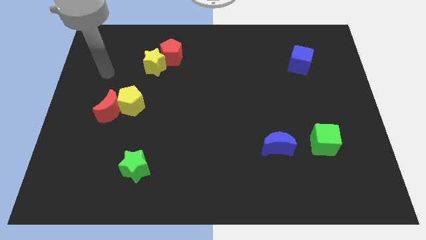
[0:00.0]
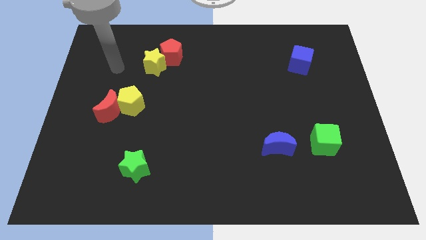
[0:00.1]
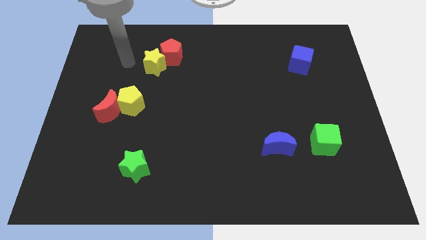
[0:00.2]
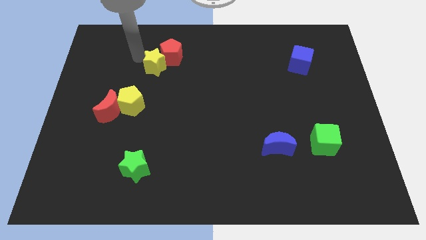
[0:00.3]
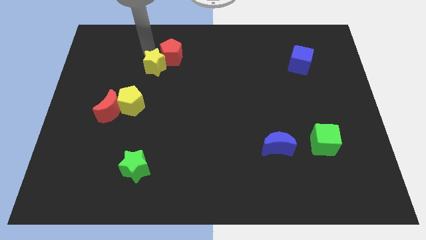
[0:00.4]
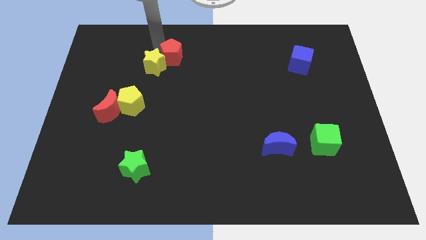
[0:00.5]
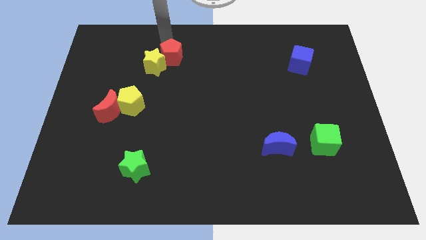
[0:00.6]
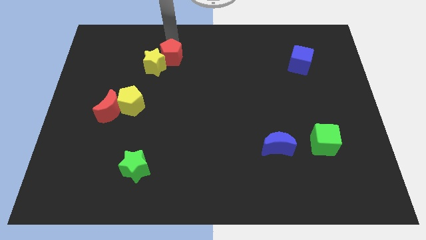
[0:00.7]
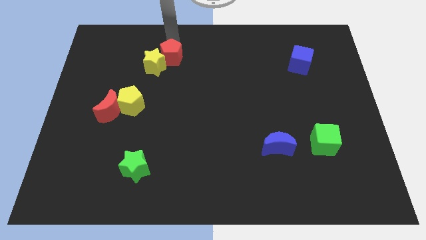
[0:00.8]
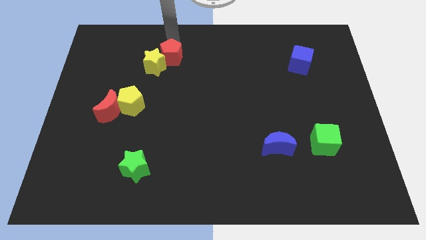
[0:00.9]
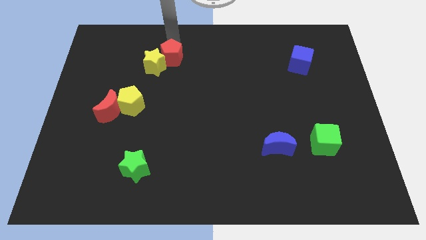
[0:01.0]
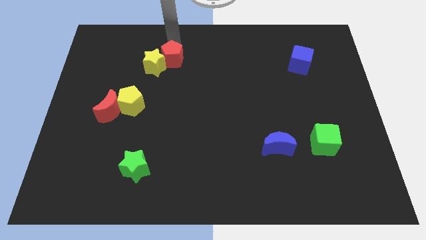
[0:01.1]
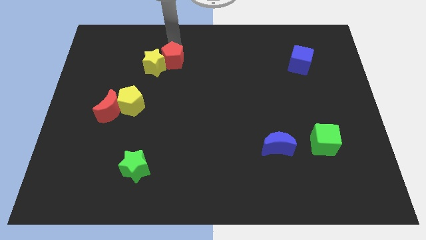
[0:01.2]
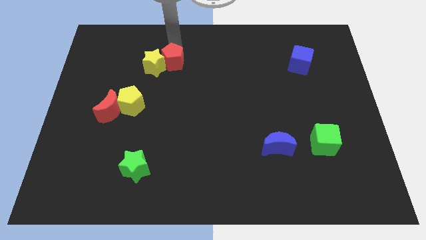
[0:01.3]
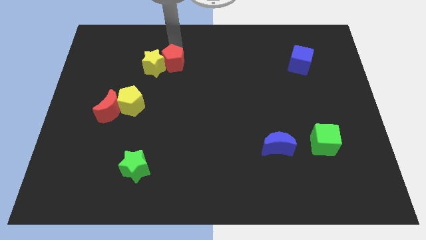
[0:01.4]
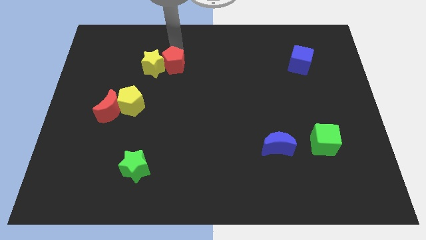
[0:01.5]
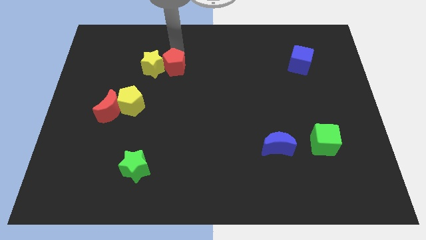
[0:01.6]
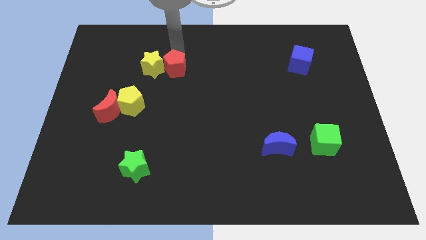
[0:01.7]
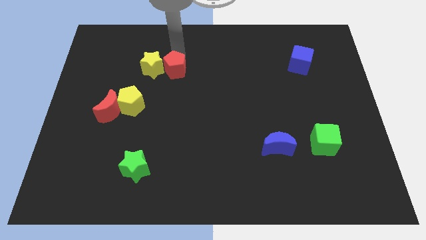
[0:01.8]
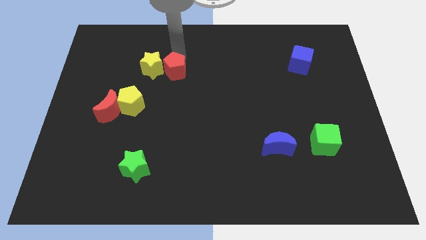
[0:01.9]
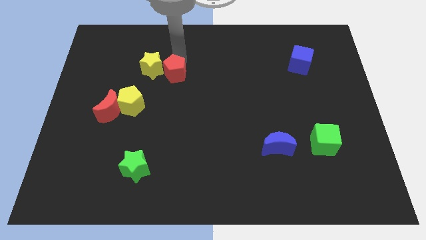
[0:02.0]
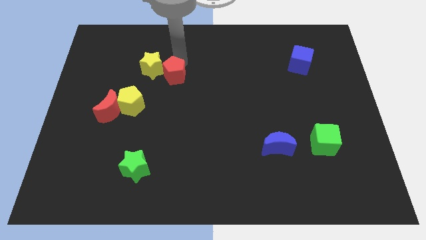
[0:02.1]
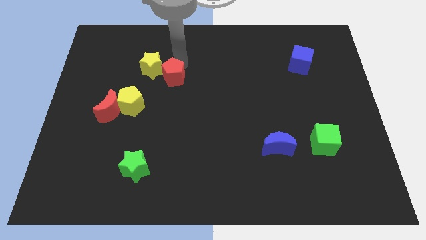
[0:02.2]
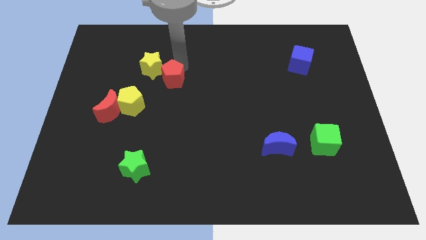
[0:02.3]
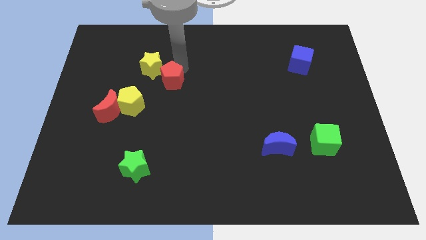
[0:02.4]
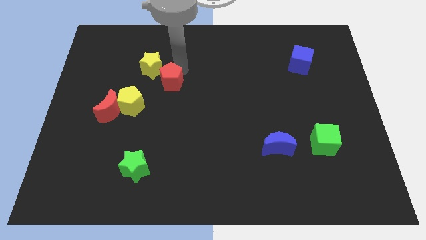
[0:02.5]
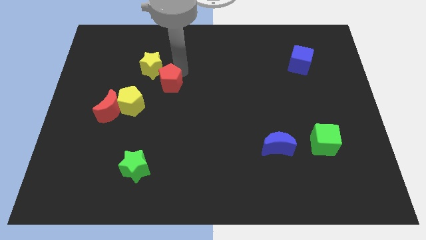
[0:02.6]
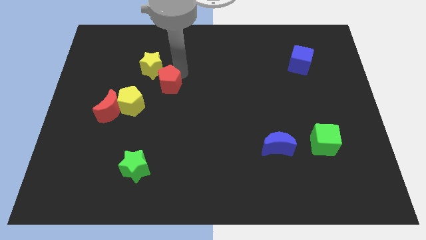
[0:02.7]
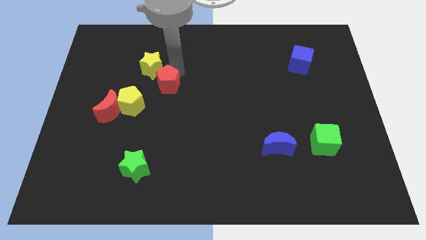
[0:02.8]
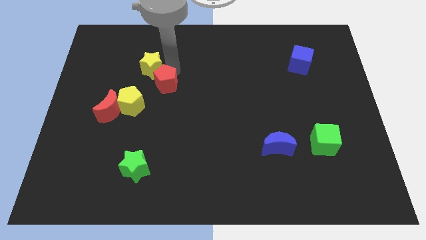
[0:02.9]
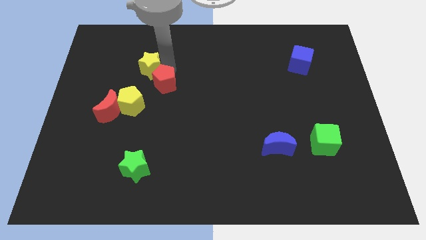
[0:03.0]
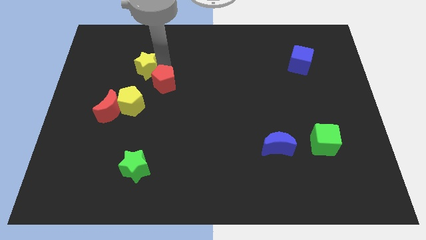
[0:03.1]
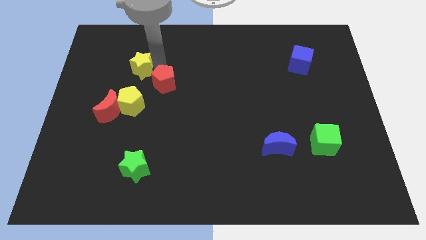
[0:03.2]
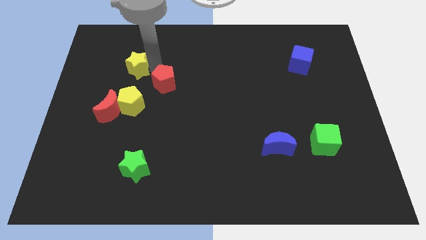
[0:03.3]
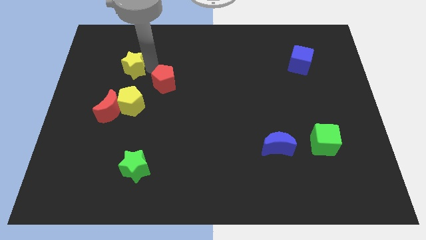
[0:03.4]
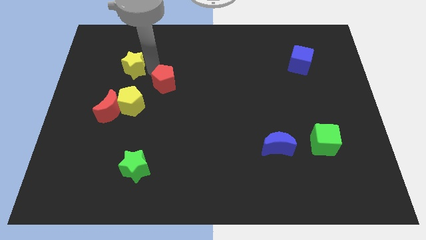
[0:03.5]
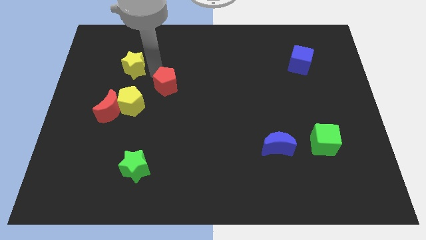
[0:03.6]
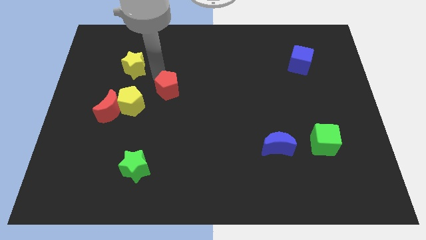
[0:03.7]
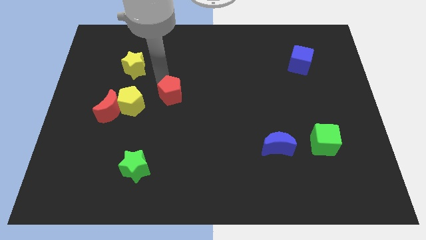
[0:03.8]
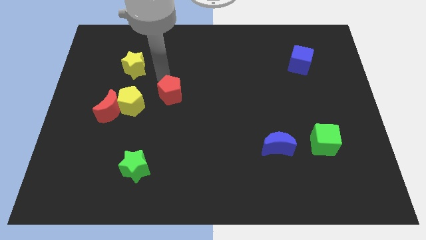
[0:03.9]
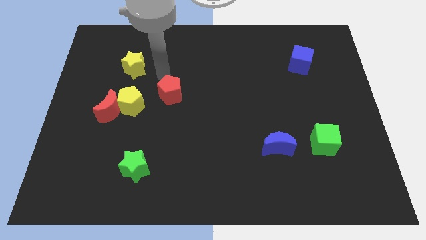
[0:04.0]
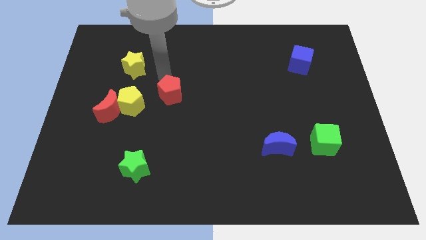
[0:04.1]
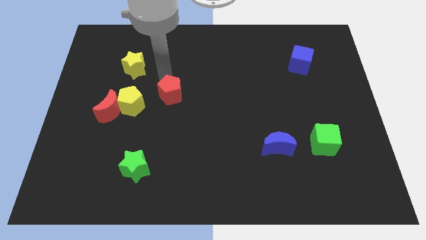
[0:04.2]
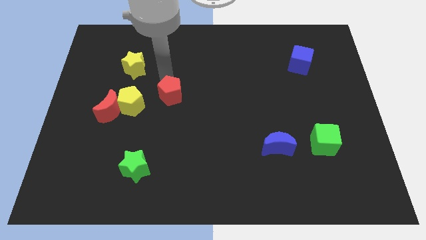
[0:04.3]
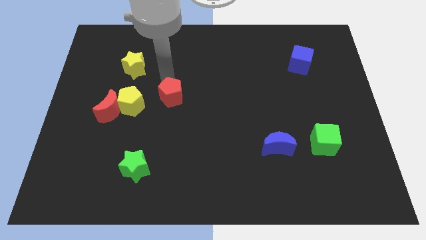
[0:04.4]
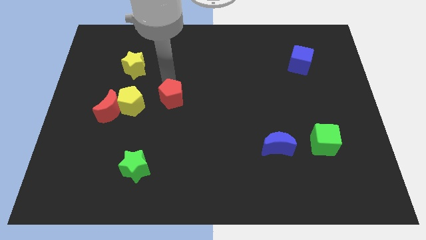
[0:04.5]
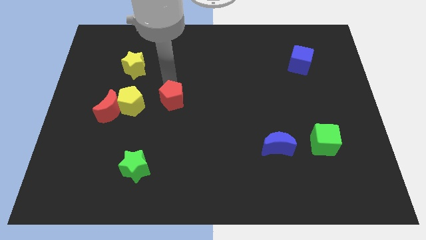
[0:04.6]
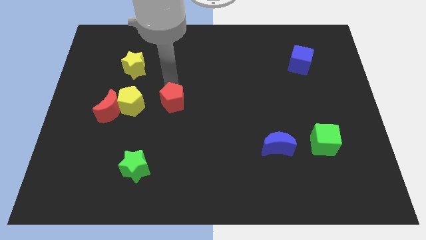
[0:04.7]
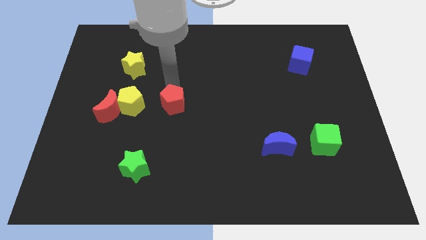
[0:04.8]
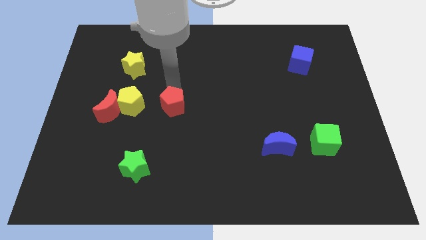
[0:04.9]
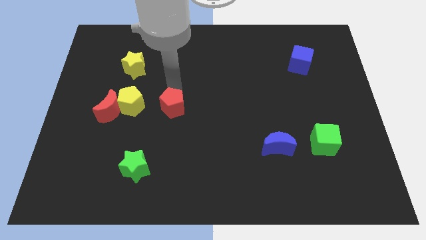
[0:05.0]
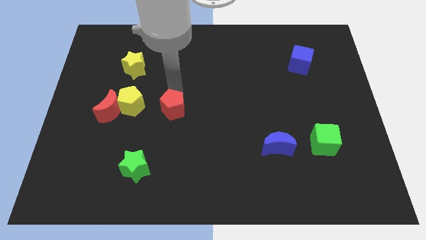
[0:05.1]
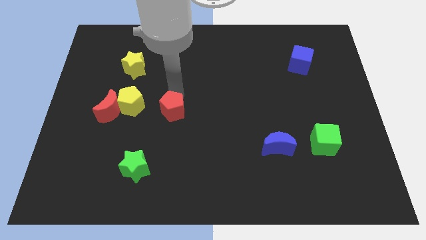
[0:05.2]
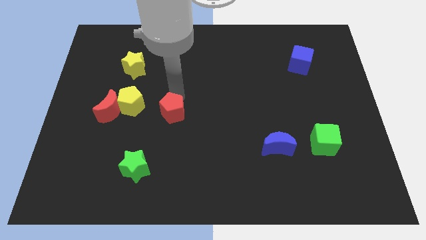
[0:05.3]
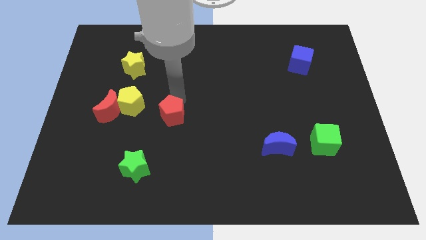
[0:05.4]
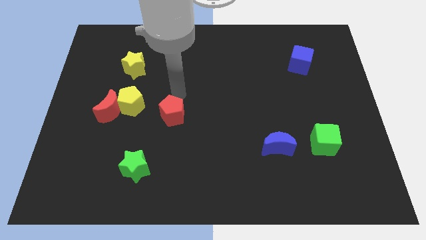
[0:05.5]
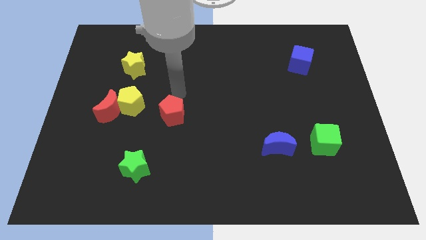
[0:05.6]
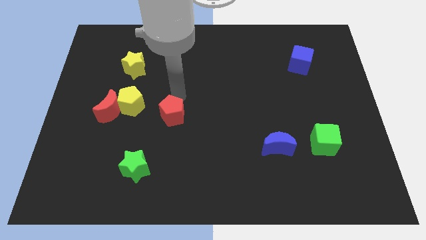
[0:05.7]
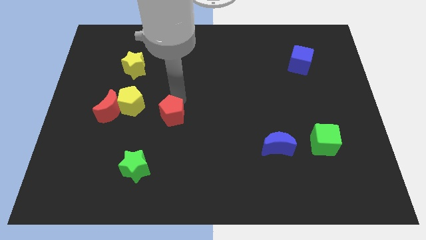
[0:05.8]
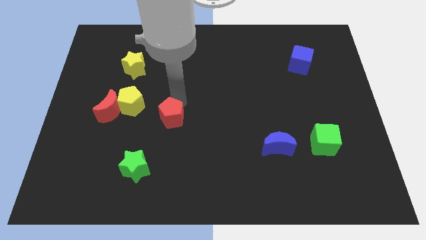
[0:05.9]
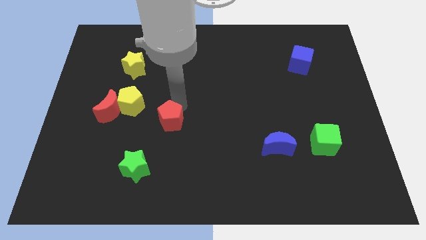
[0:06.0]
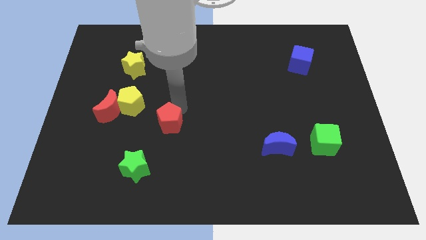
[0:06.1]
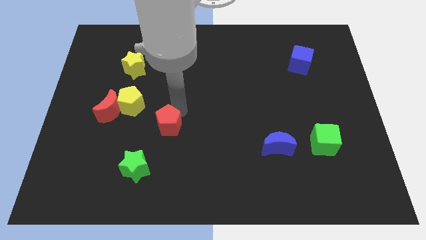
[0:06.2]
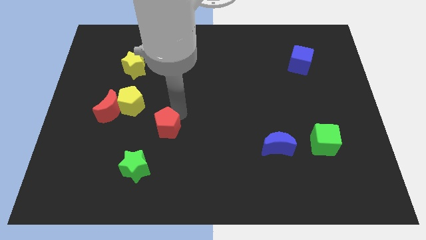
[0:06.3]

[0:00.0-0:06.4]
slide the red pentagon to the top right of the green star

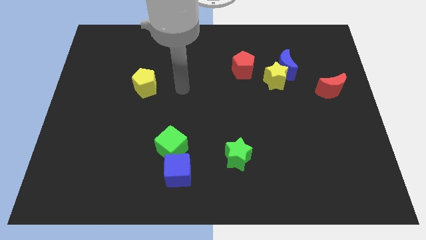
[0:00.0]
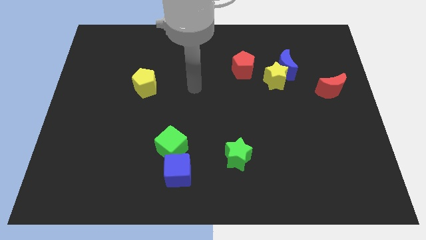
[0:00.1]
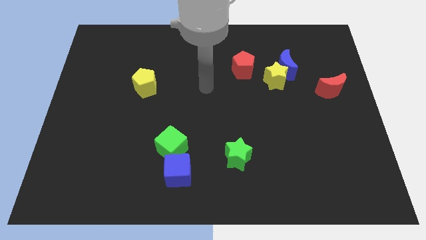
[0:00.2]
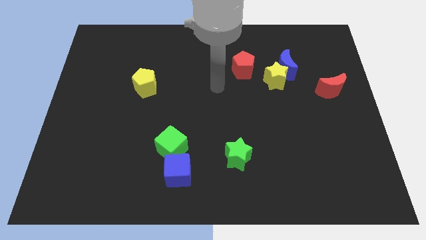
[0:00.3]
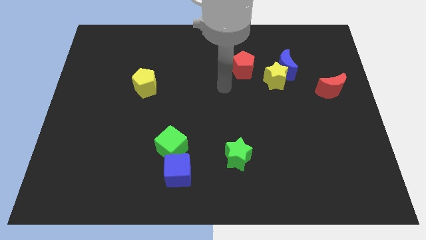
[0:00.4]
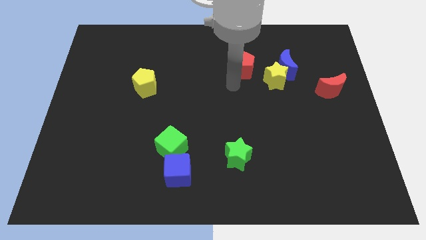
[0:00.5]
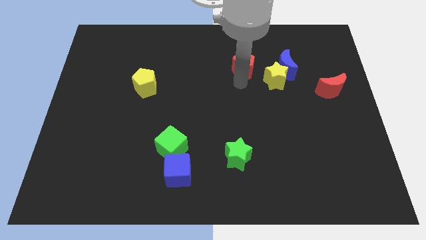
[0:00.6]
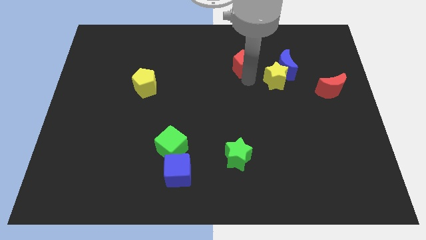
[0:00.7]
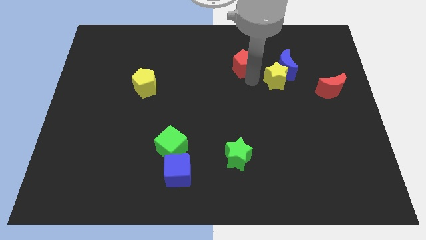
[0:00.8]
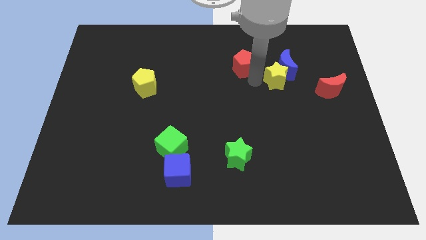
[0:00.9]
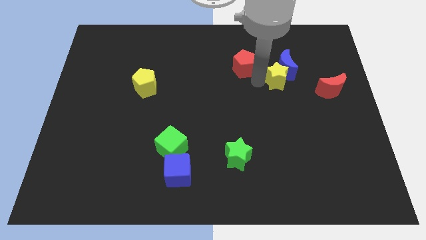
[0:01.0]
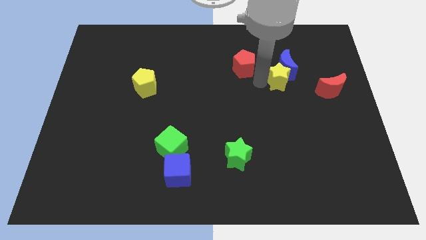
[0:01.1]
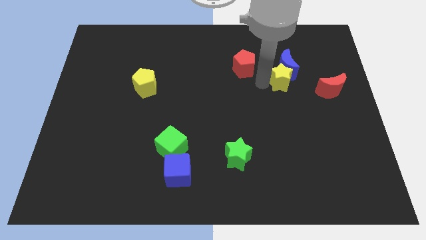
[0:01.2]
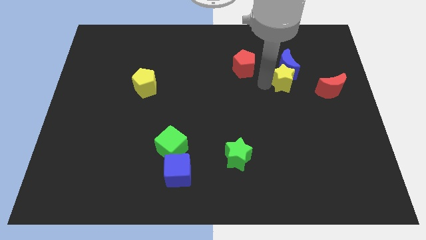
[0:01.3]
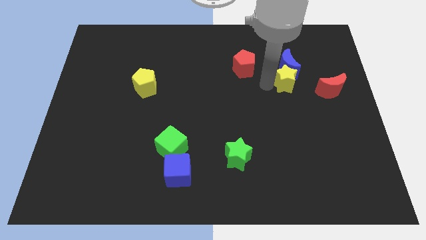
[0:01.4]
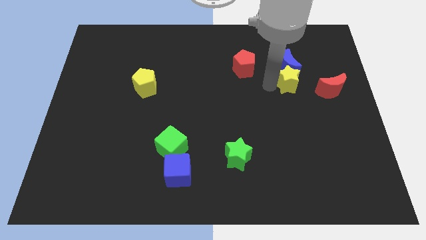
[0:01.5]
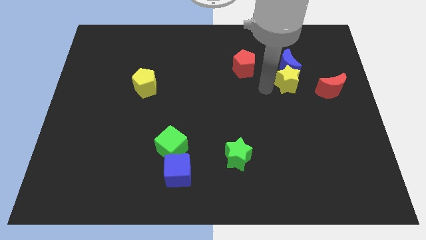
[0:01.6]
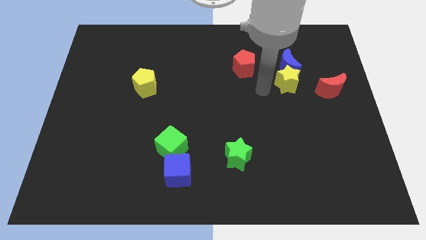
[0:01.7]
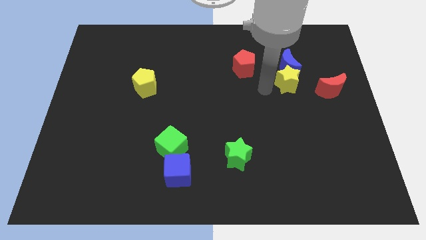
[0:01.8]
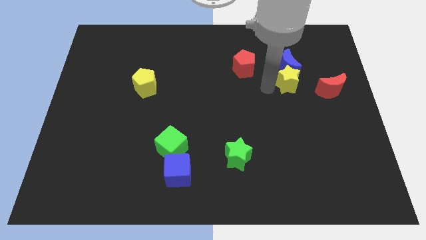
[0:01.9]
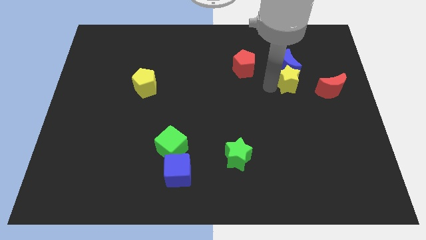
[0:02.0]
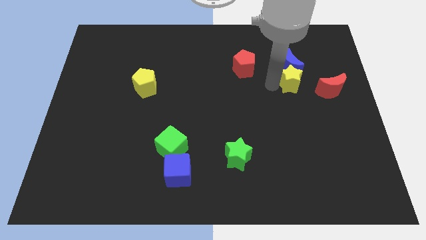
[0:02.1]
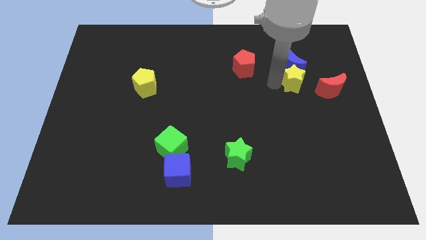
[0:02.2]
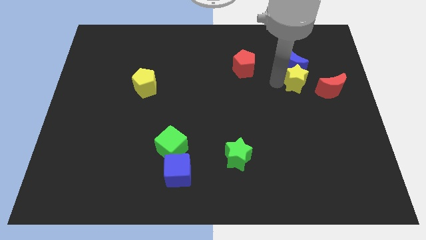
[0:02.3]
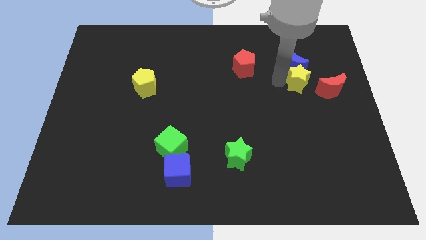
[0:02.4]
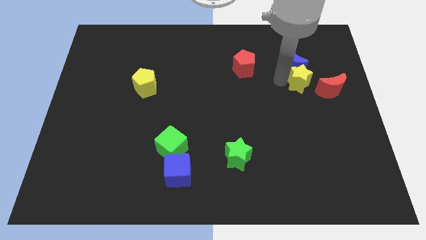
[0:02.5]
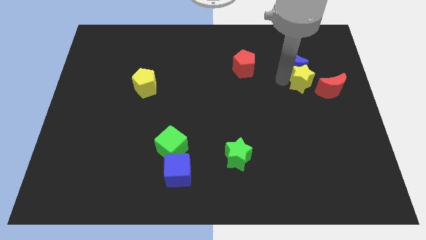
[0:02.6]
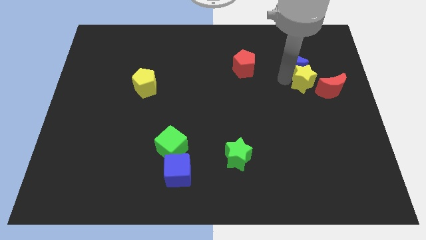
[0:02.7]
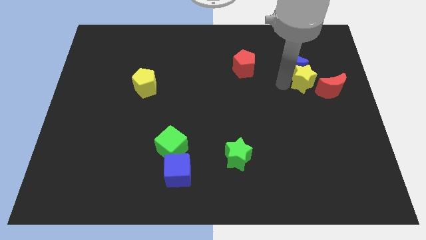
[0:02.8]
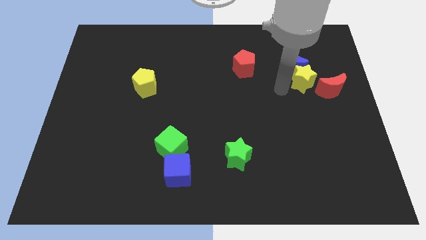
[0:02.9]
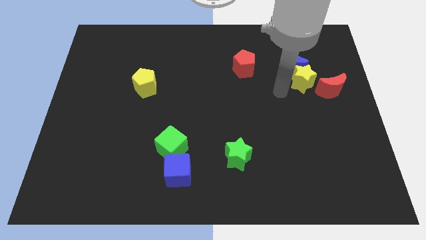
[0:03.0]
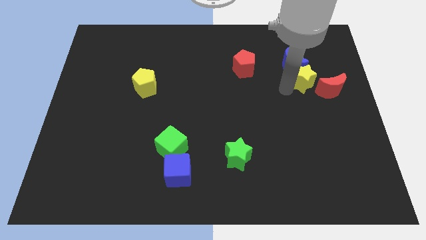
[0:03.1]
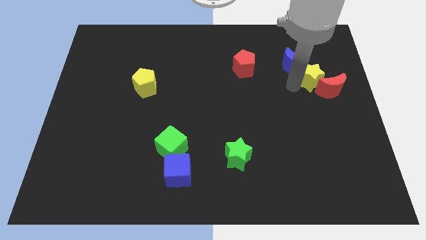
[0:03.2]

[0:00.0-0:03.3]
put the yellow star to the right of the blue moon
